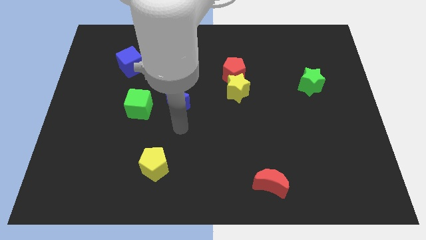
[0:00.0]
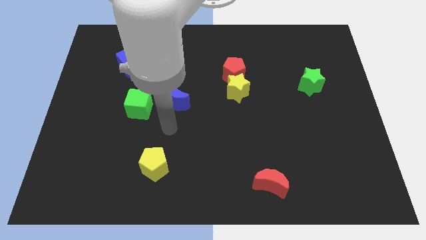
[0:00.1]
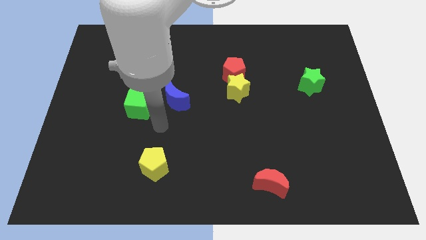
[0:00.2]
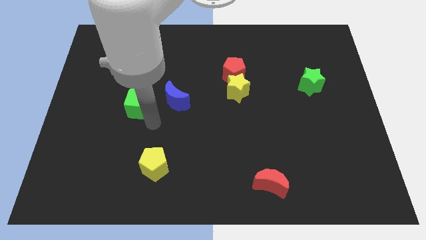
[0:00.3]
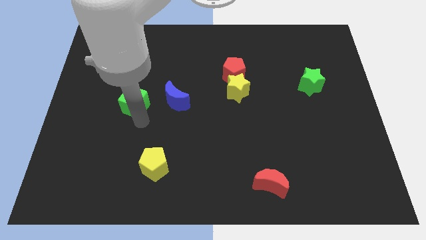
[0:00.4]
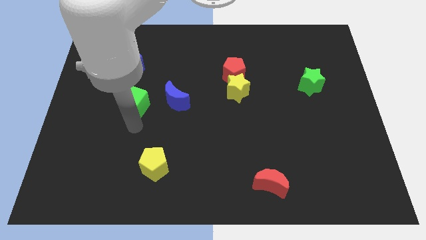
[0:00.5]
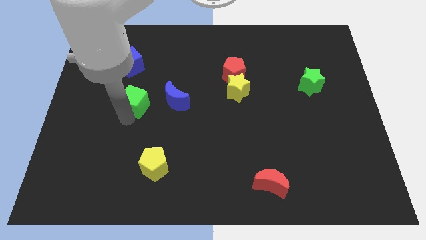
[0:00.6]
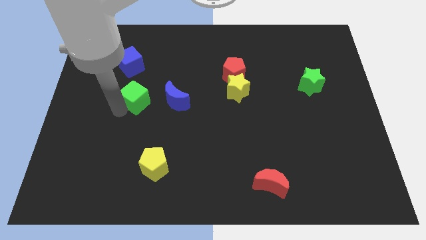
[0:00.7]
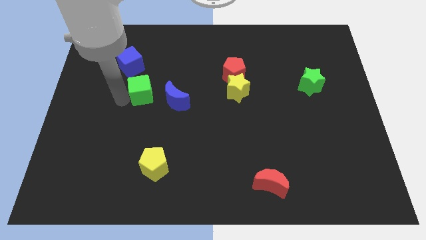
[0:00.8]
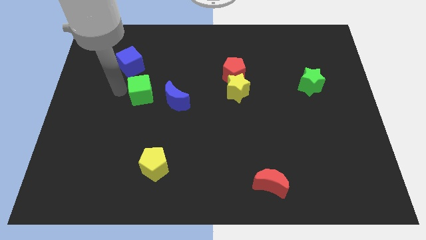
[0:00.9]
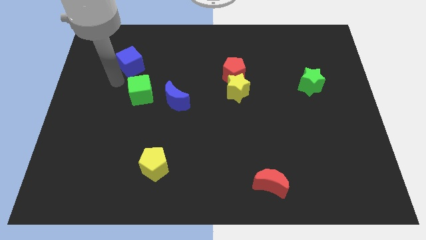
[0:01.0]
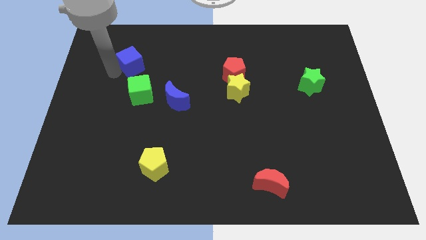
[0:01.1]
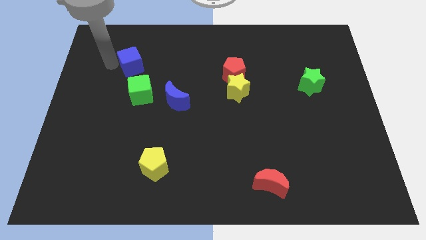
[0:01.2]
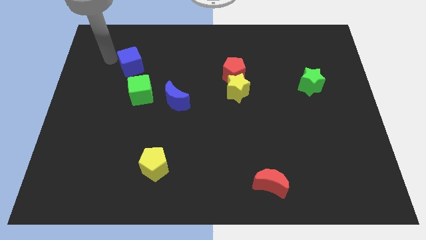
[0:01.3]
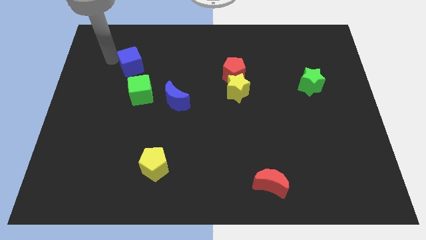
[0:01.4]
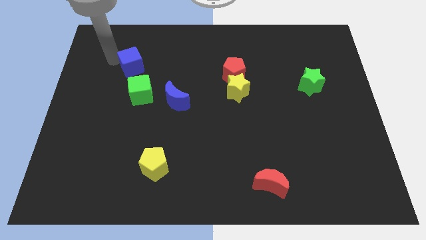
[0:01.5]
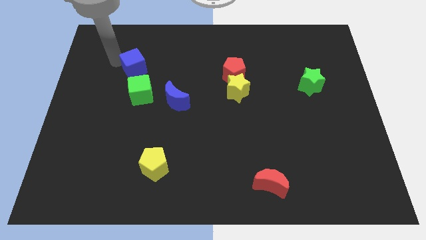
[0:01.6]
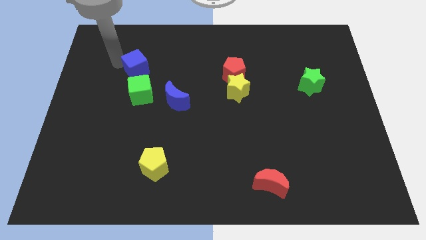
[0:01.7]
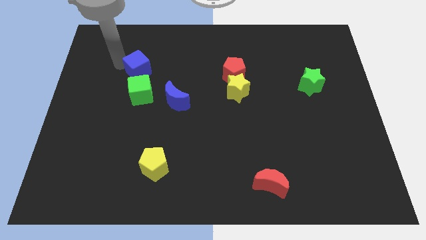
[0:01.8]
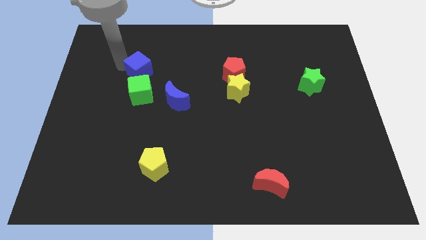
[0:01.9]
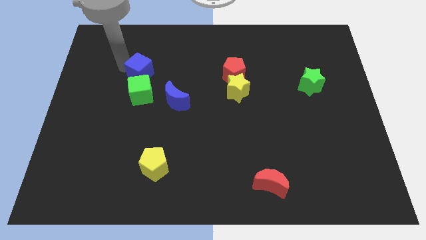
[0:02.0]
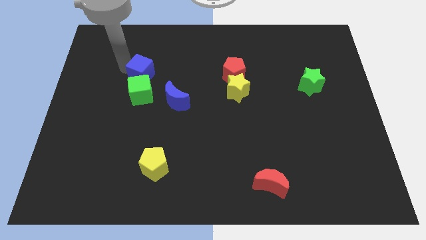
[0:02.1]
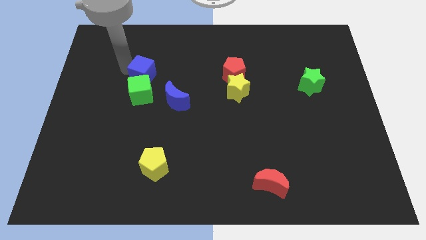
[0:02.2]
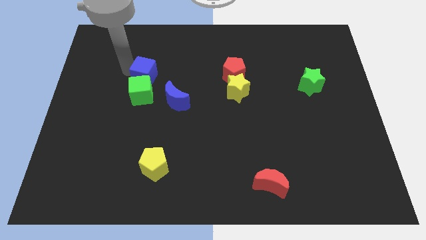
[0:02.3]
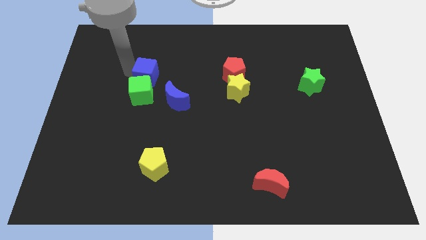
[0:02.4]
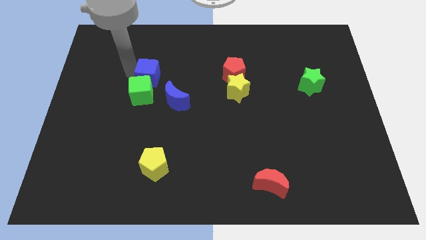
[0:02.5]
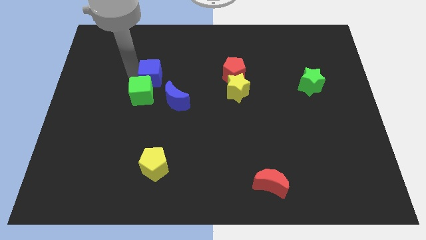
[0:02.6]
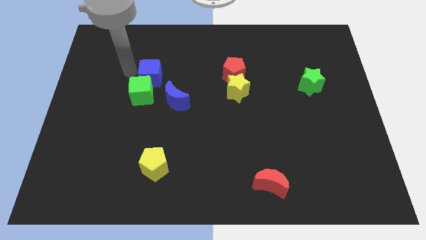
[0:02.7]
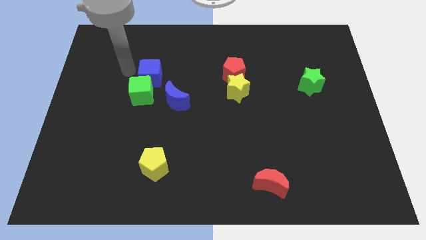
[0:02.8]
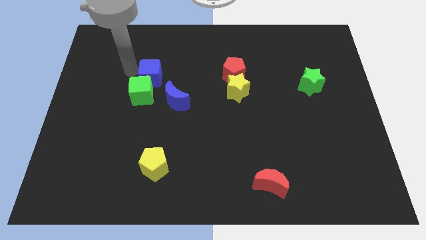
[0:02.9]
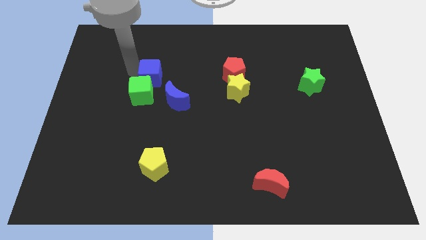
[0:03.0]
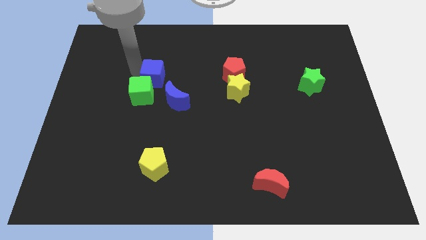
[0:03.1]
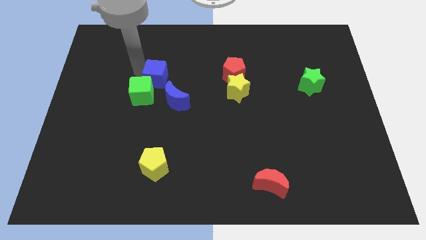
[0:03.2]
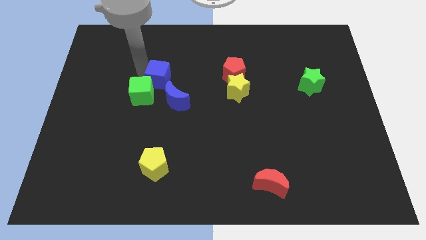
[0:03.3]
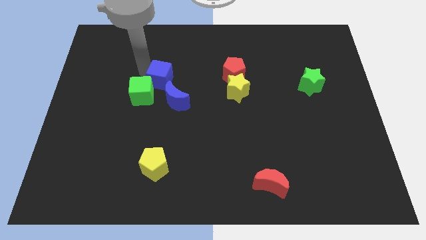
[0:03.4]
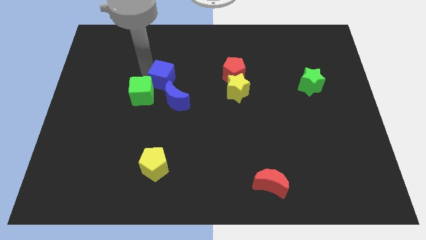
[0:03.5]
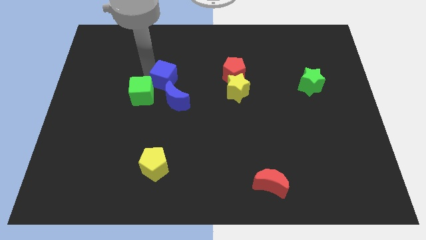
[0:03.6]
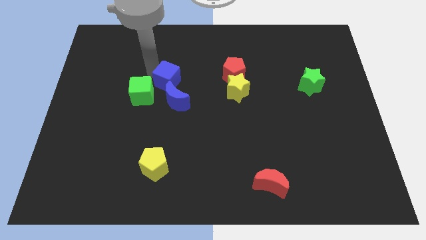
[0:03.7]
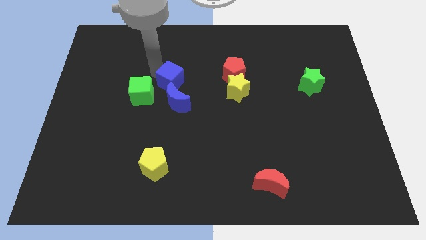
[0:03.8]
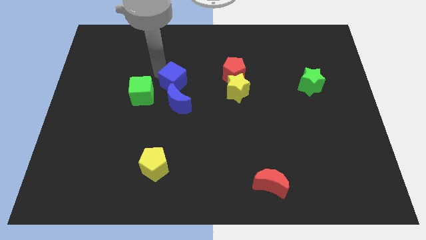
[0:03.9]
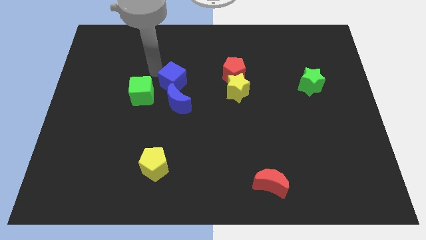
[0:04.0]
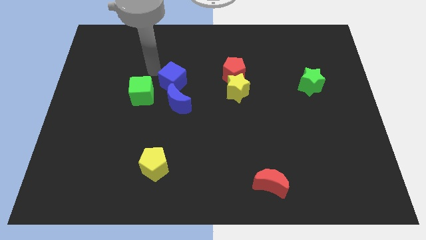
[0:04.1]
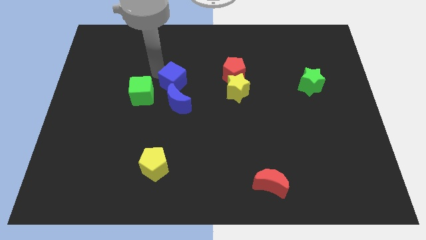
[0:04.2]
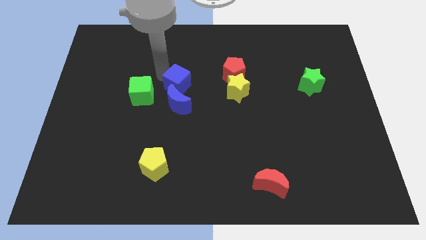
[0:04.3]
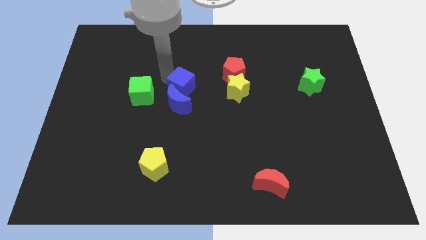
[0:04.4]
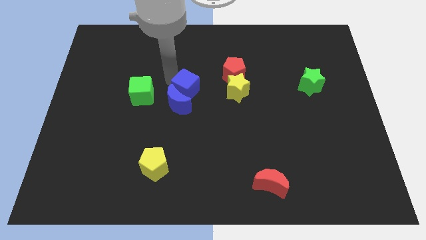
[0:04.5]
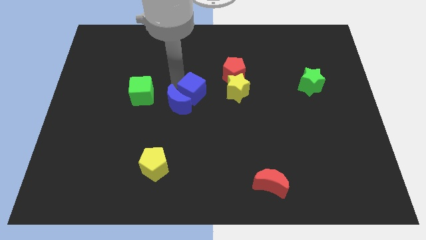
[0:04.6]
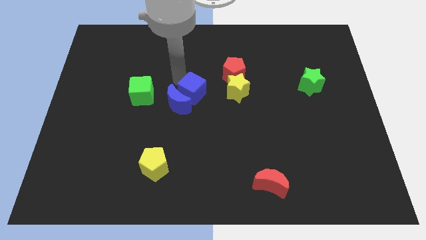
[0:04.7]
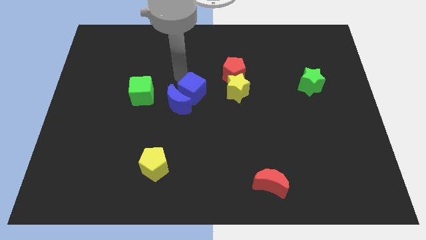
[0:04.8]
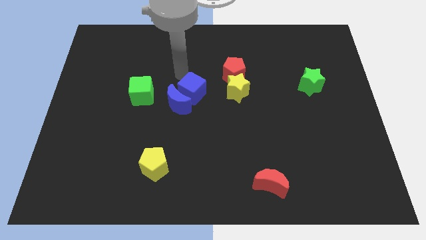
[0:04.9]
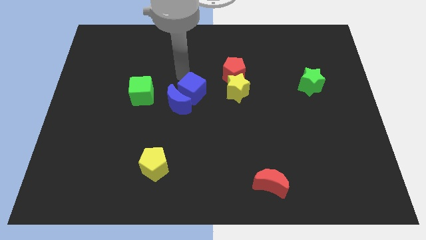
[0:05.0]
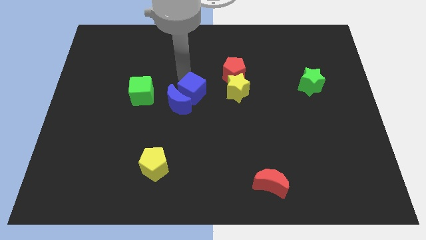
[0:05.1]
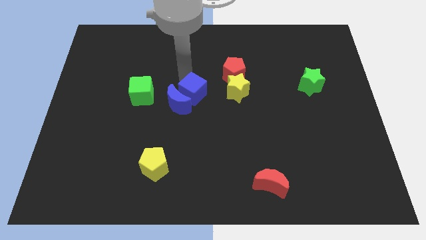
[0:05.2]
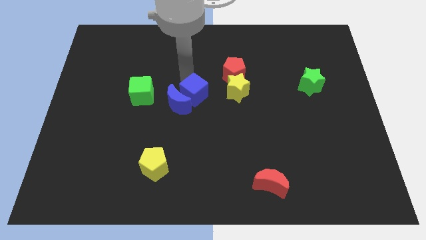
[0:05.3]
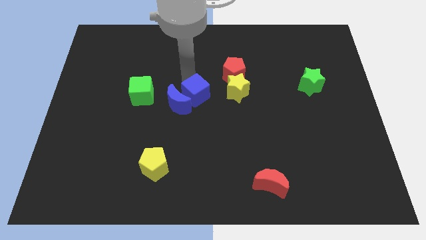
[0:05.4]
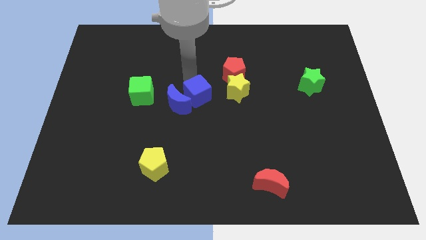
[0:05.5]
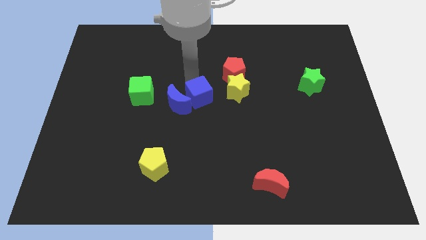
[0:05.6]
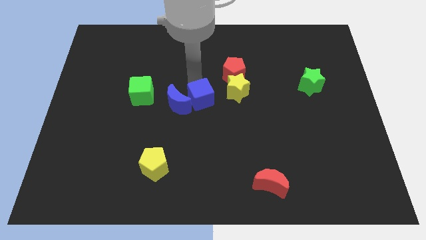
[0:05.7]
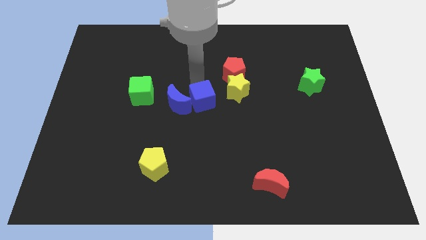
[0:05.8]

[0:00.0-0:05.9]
push the blue cube downwards and to the right diagonally

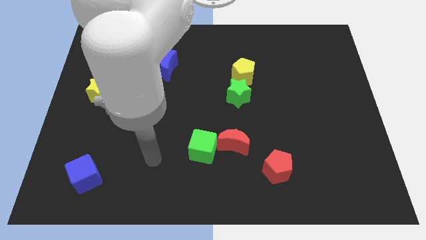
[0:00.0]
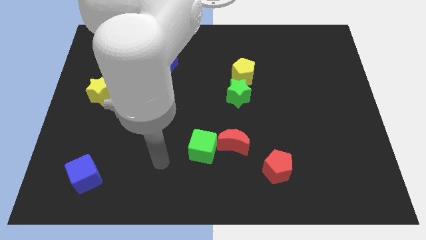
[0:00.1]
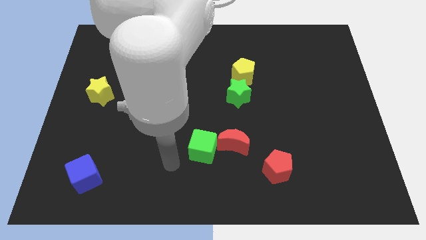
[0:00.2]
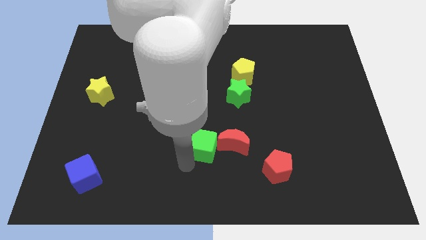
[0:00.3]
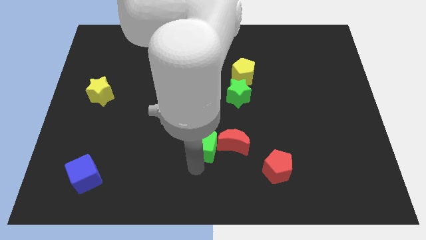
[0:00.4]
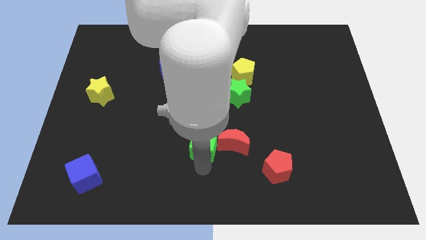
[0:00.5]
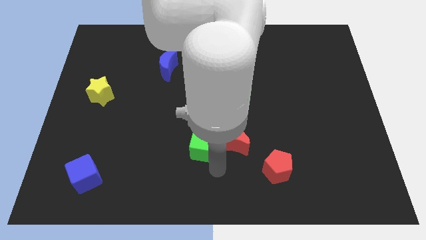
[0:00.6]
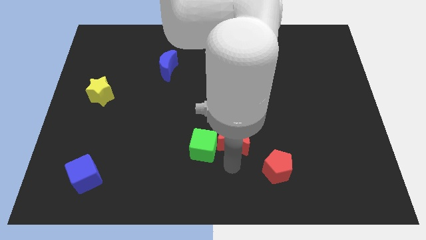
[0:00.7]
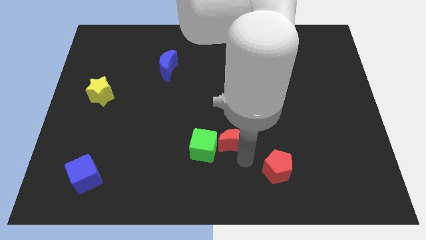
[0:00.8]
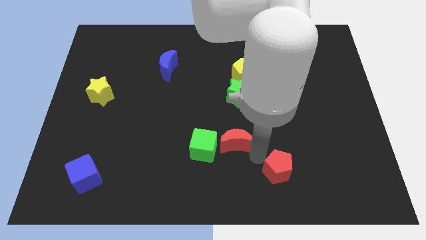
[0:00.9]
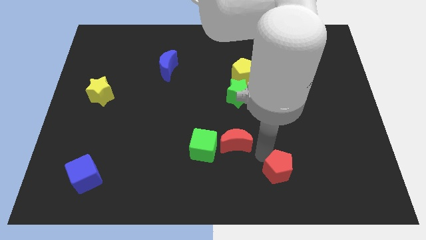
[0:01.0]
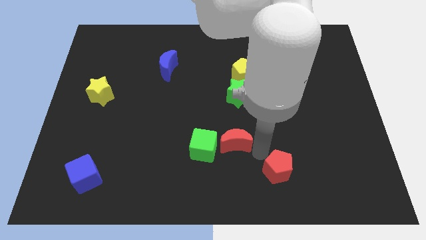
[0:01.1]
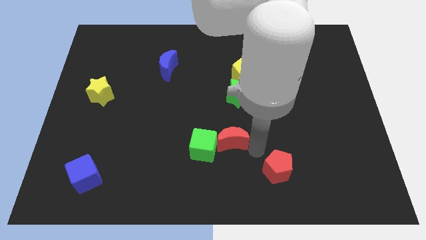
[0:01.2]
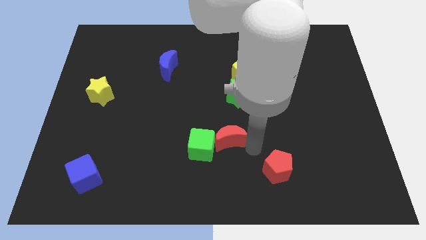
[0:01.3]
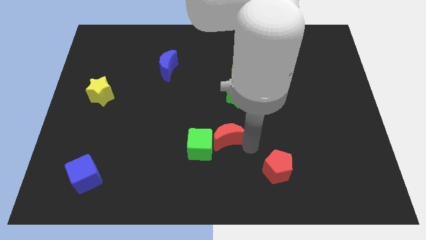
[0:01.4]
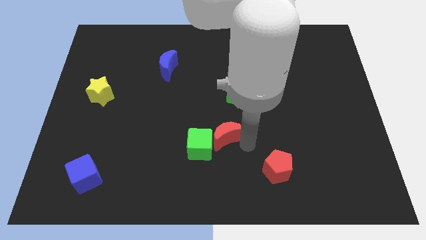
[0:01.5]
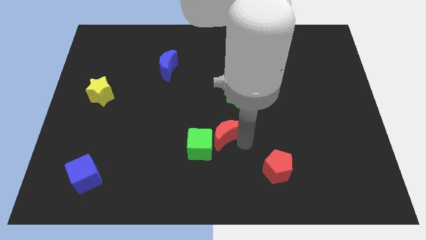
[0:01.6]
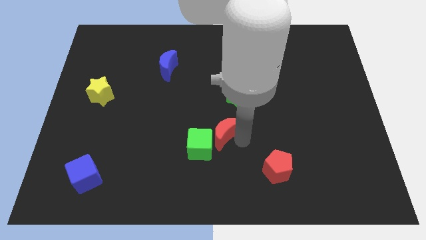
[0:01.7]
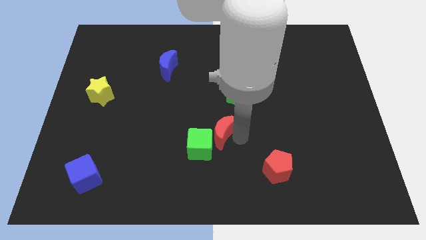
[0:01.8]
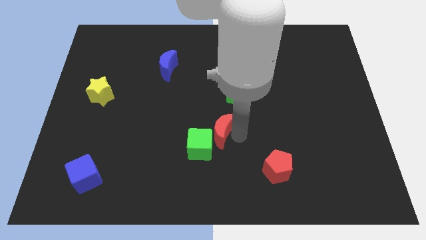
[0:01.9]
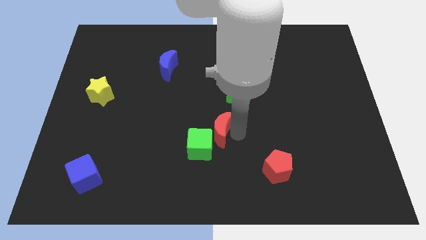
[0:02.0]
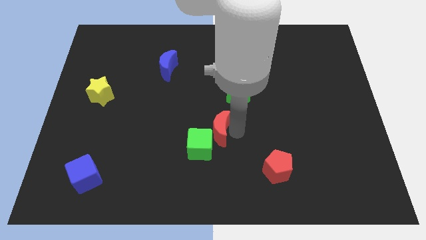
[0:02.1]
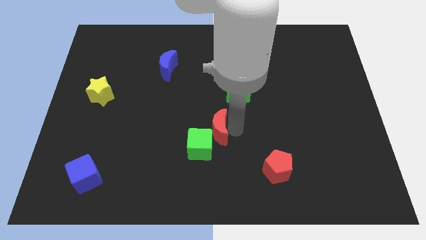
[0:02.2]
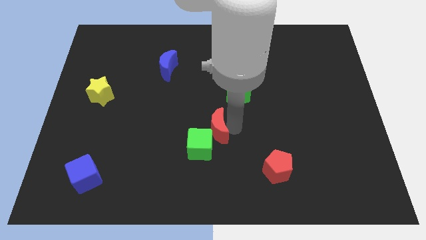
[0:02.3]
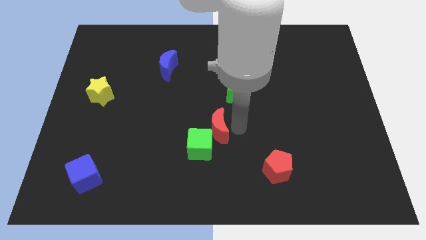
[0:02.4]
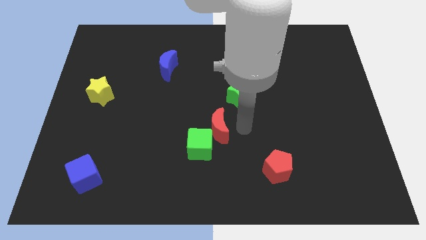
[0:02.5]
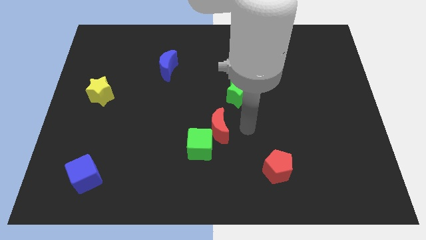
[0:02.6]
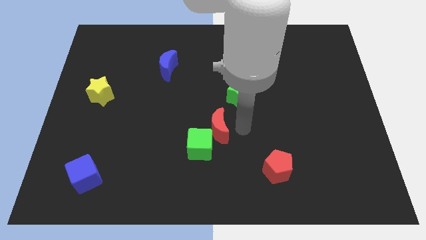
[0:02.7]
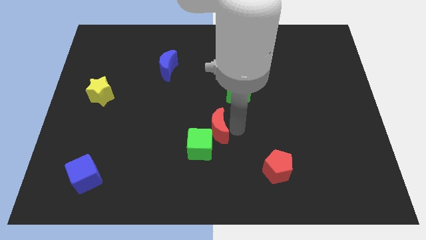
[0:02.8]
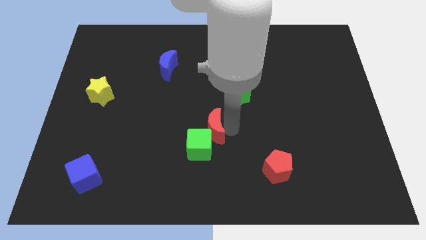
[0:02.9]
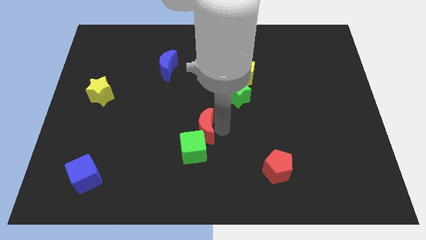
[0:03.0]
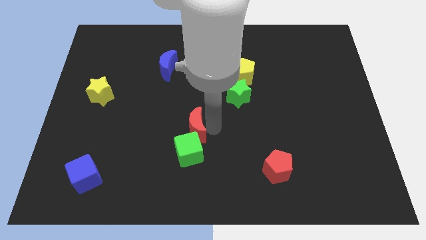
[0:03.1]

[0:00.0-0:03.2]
slide the red moon to the left a little bit
